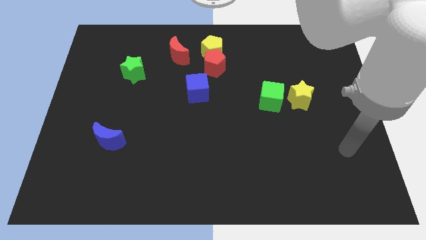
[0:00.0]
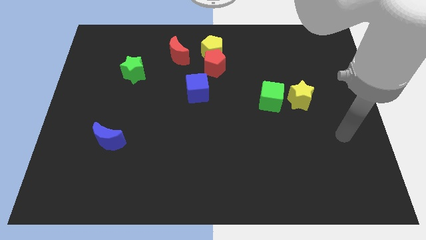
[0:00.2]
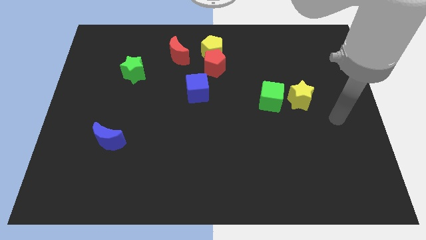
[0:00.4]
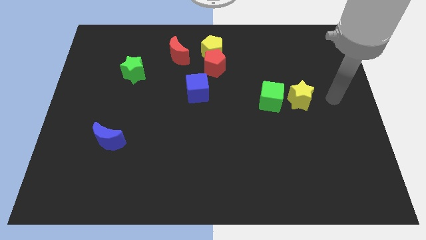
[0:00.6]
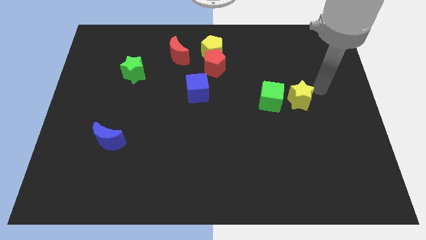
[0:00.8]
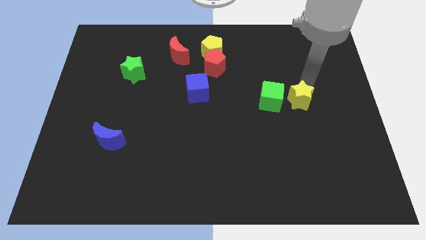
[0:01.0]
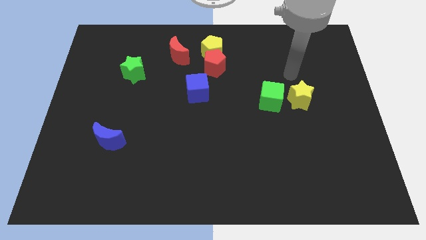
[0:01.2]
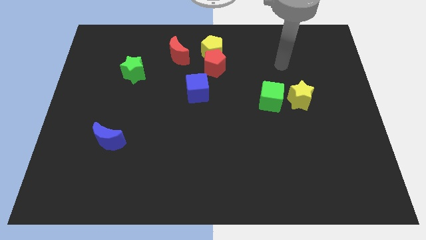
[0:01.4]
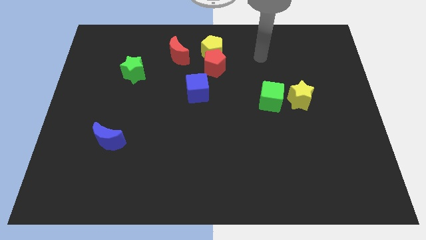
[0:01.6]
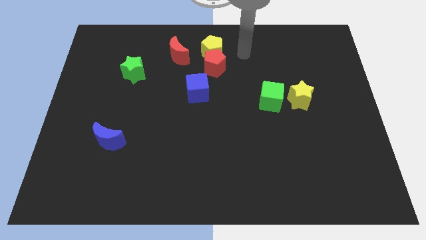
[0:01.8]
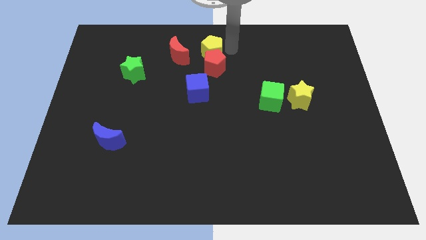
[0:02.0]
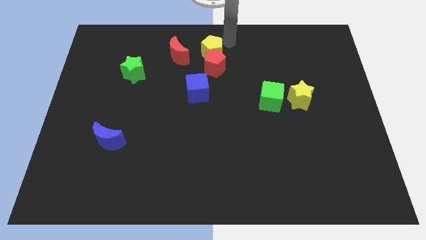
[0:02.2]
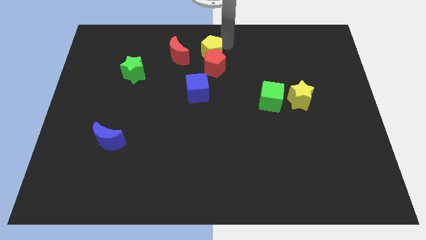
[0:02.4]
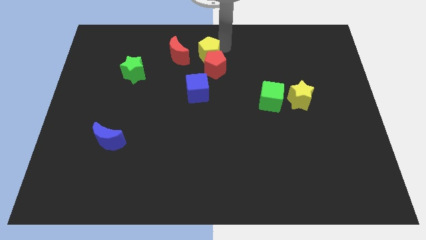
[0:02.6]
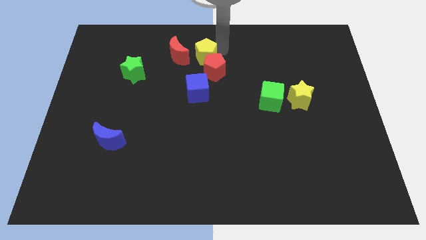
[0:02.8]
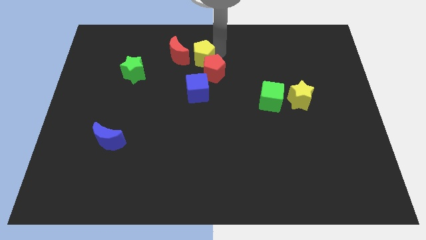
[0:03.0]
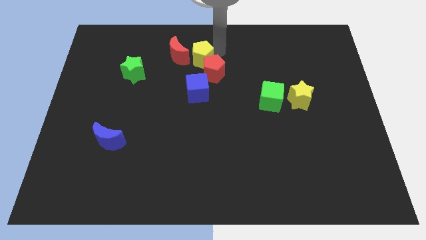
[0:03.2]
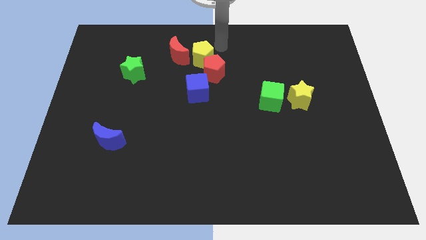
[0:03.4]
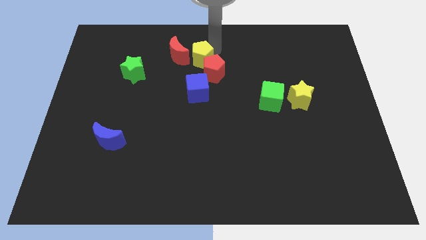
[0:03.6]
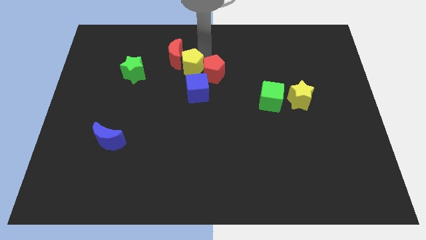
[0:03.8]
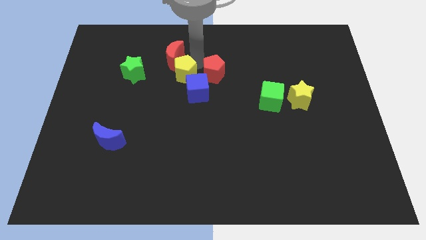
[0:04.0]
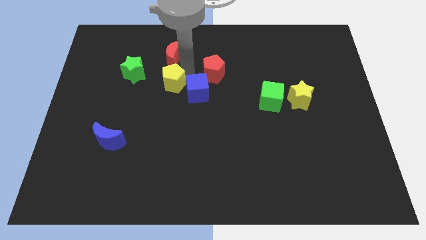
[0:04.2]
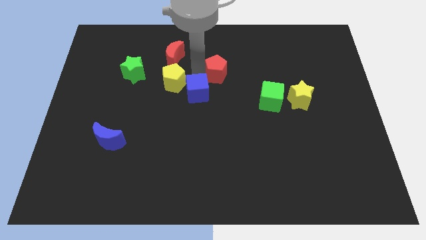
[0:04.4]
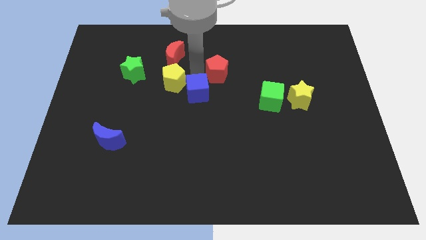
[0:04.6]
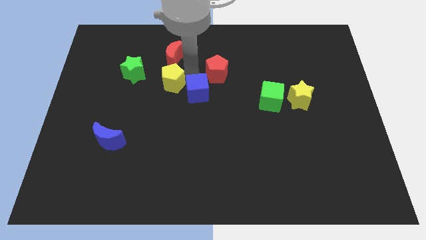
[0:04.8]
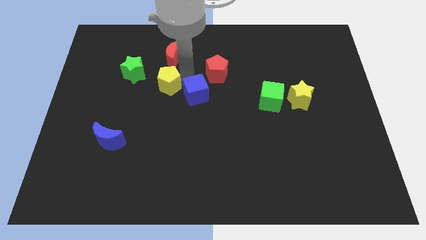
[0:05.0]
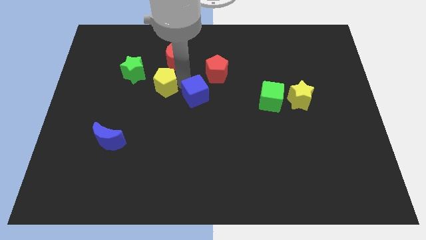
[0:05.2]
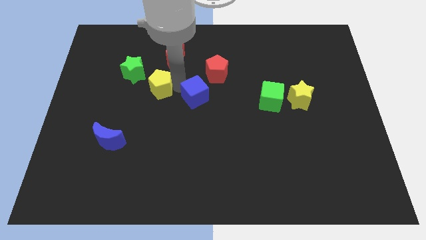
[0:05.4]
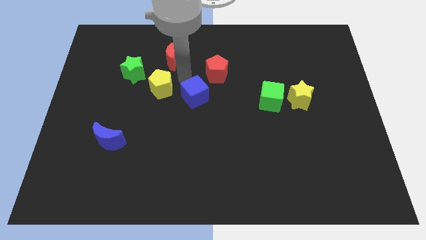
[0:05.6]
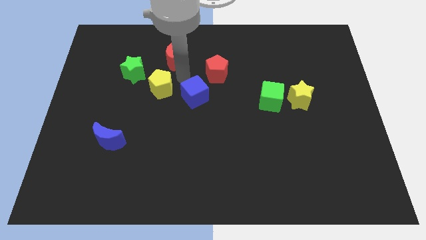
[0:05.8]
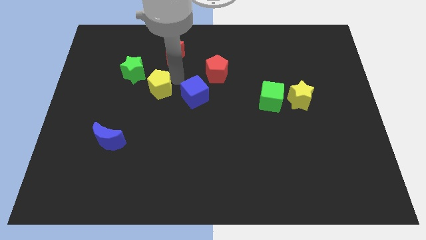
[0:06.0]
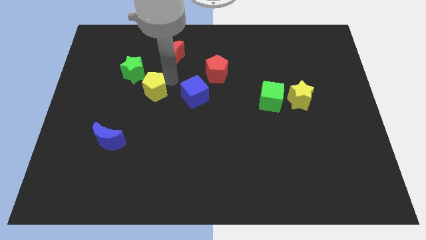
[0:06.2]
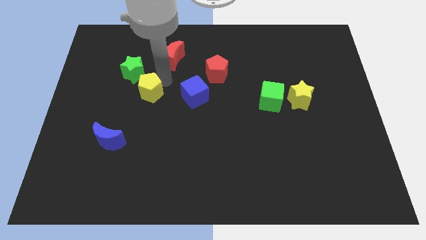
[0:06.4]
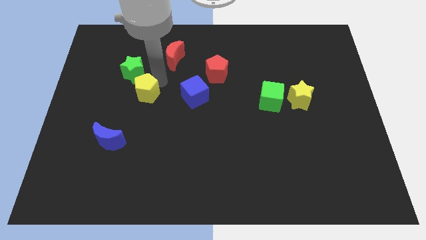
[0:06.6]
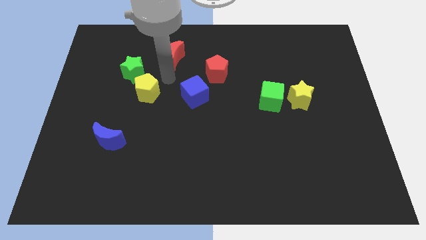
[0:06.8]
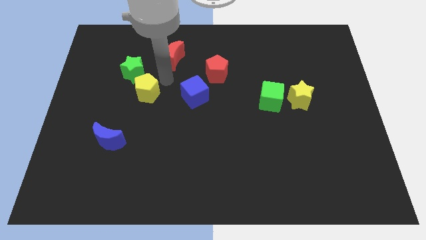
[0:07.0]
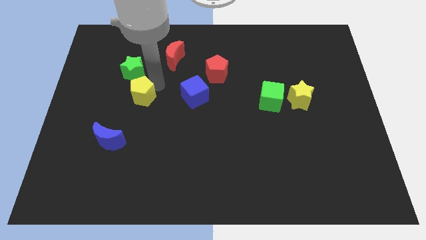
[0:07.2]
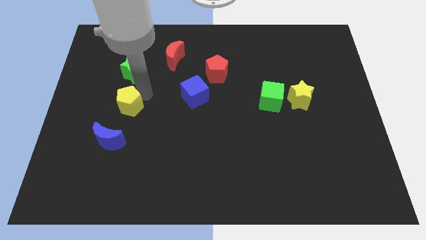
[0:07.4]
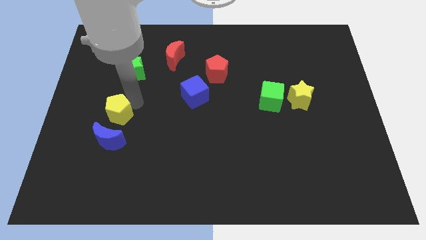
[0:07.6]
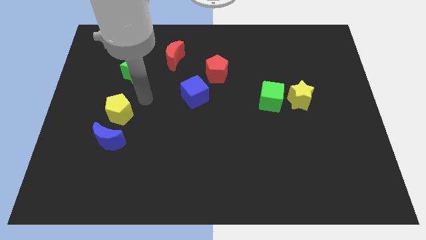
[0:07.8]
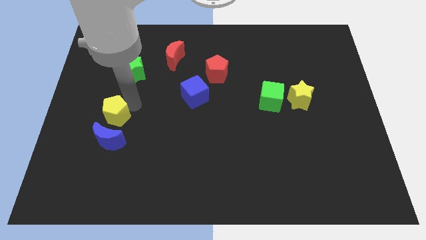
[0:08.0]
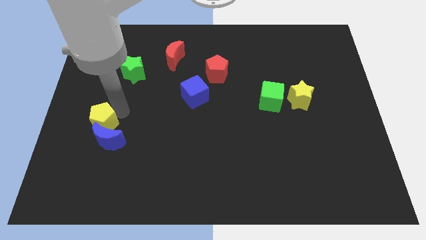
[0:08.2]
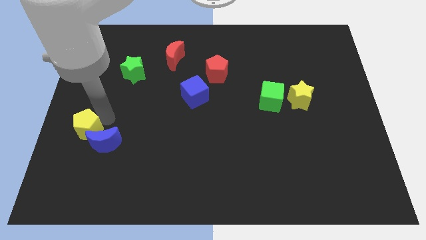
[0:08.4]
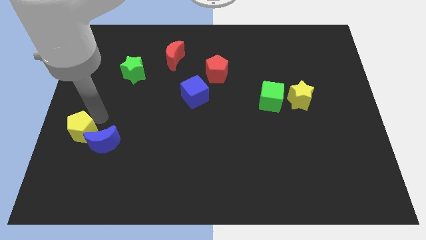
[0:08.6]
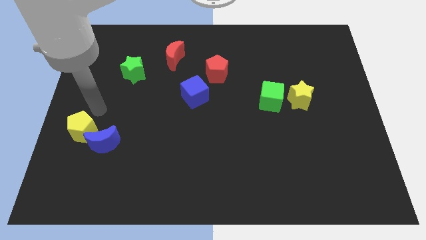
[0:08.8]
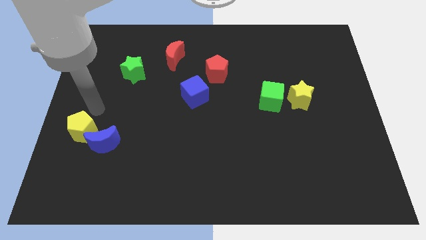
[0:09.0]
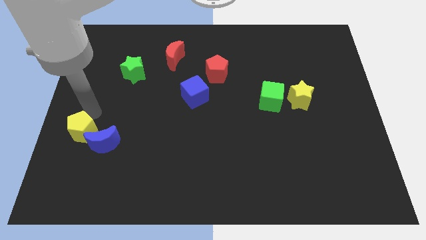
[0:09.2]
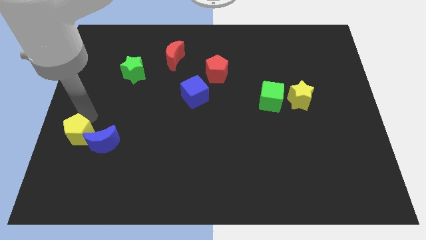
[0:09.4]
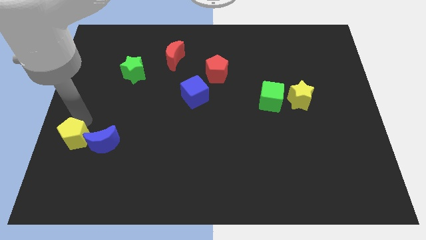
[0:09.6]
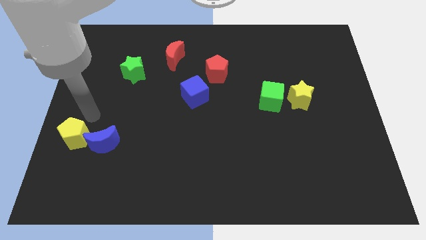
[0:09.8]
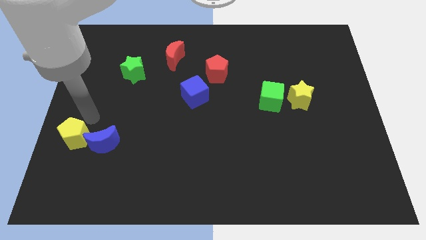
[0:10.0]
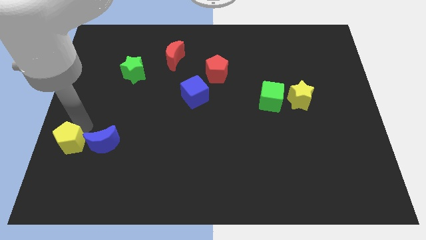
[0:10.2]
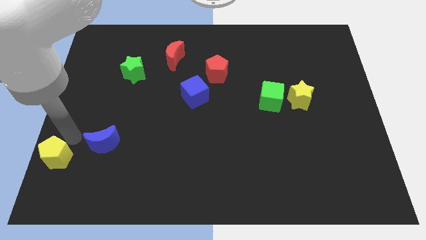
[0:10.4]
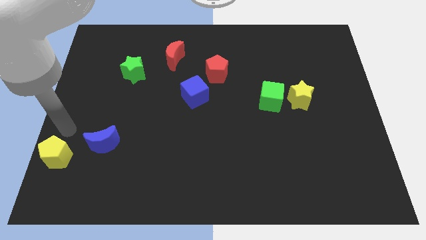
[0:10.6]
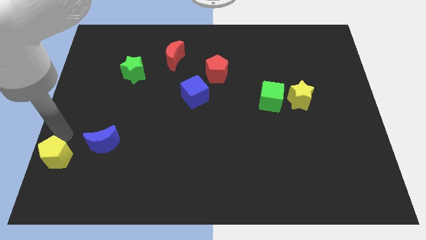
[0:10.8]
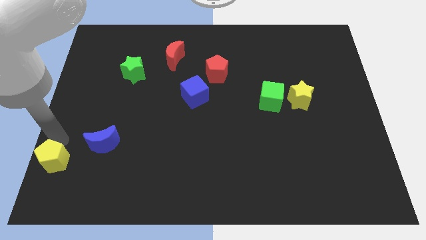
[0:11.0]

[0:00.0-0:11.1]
push the yellow pentagon to the bottom left corner

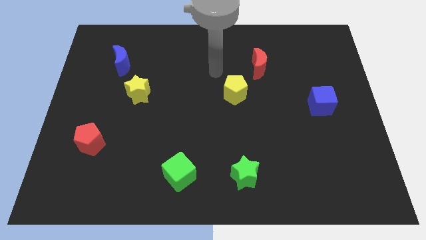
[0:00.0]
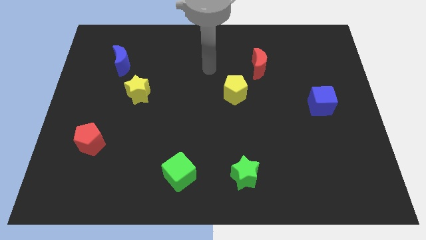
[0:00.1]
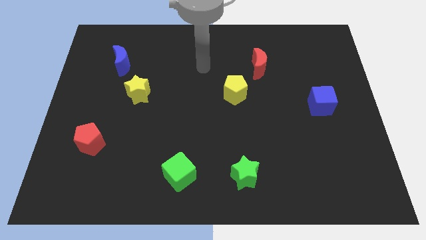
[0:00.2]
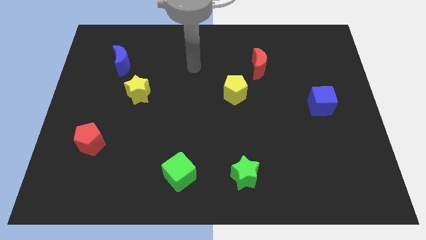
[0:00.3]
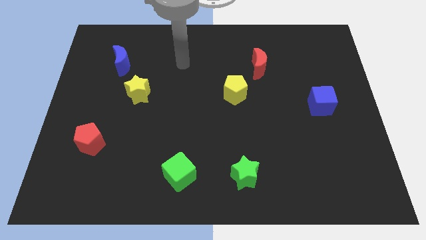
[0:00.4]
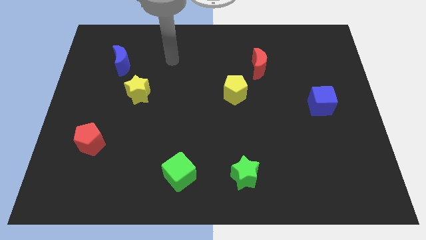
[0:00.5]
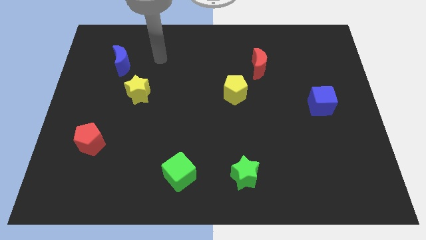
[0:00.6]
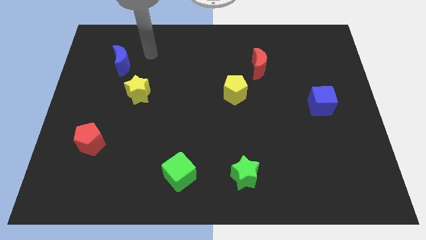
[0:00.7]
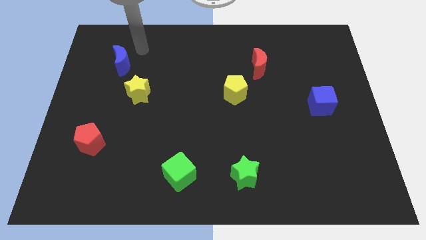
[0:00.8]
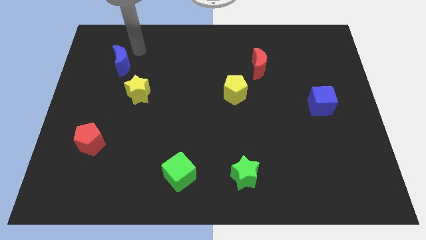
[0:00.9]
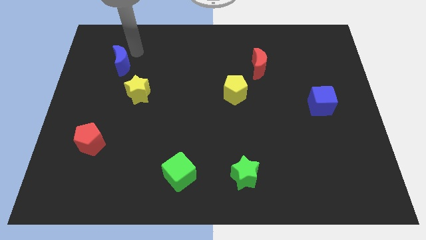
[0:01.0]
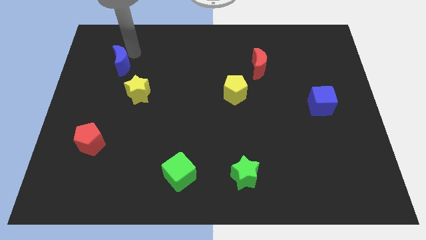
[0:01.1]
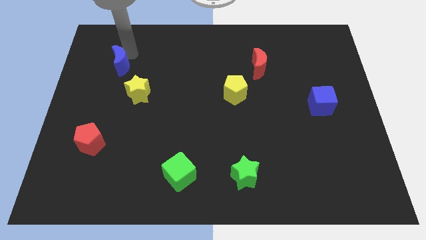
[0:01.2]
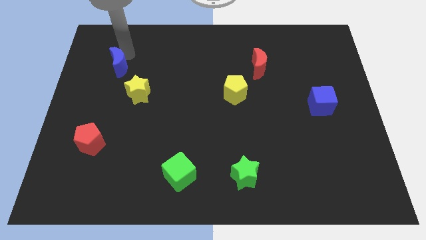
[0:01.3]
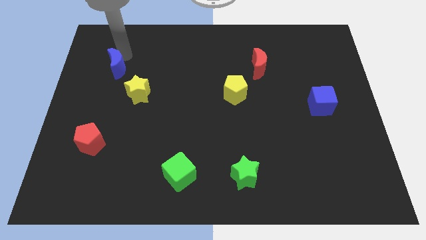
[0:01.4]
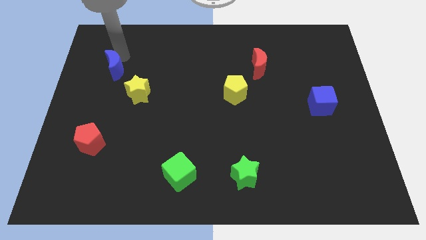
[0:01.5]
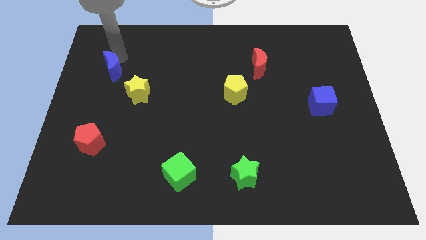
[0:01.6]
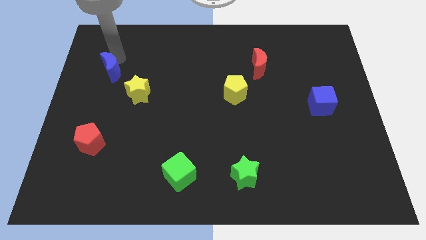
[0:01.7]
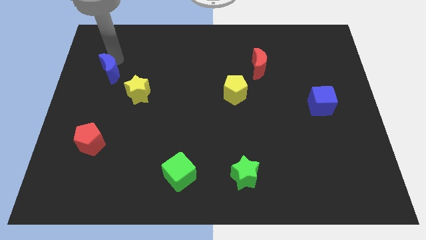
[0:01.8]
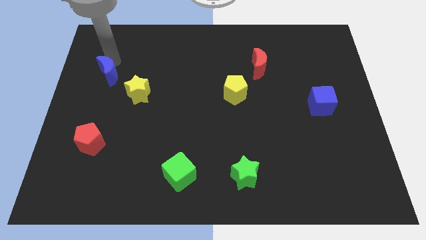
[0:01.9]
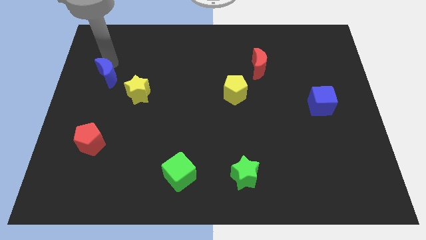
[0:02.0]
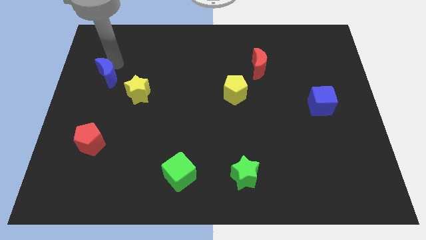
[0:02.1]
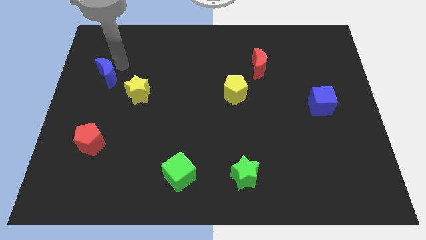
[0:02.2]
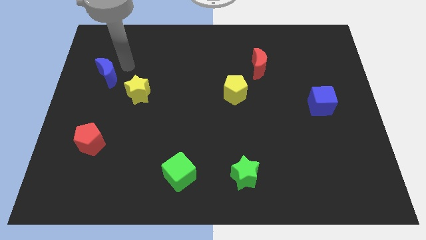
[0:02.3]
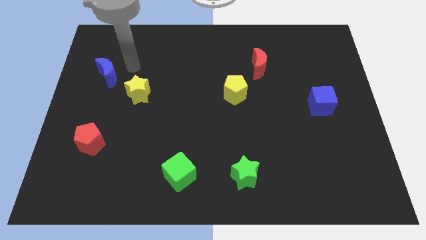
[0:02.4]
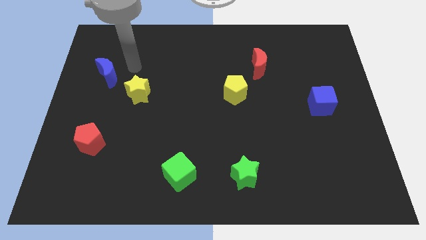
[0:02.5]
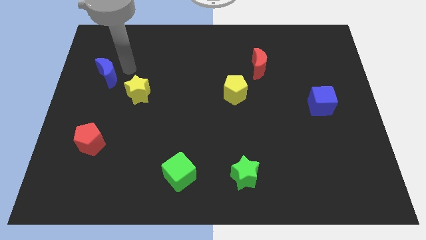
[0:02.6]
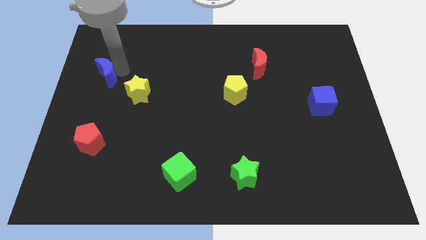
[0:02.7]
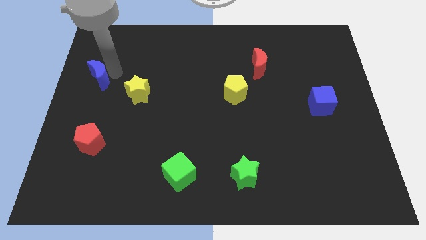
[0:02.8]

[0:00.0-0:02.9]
put the blue moon to the left side of the board
